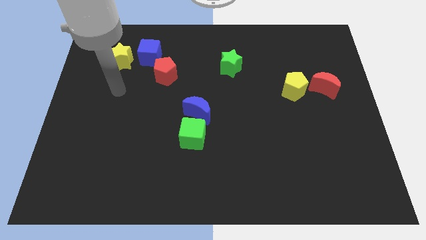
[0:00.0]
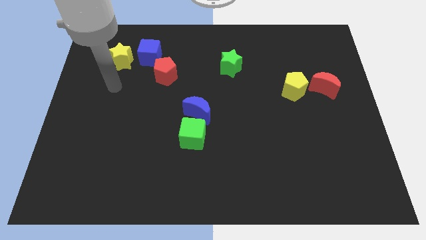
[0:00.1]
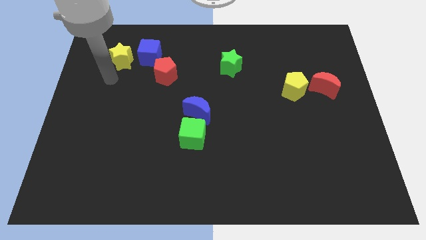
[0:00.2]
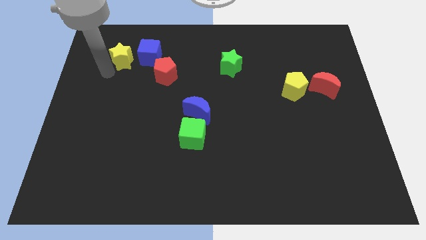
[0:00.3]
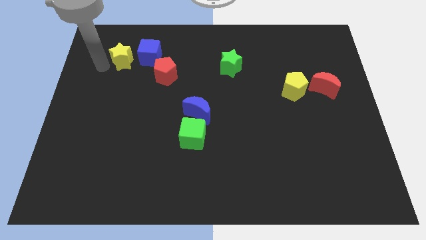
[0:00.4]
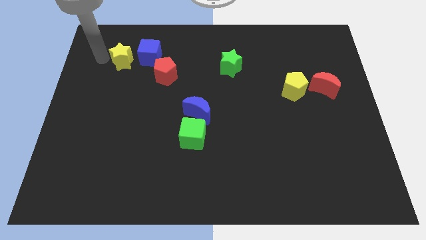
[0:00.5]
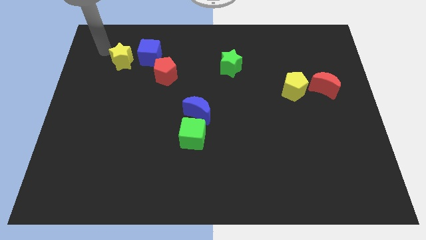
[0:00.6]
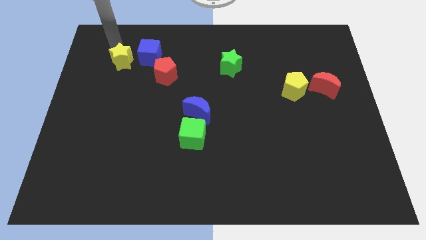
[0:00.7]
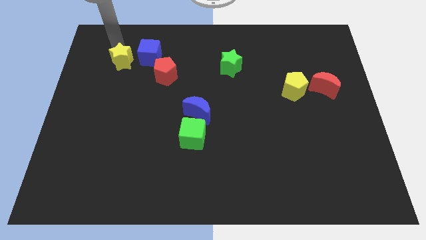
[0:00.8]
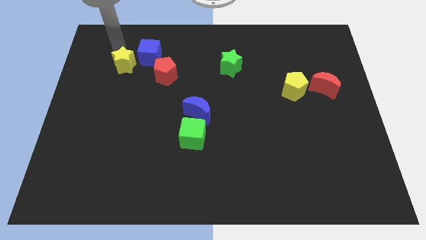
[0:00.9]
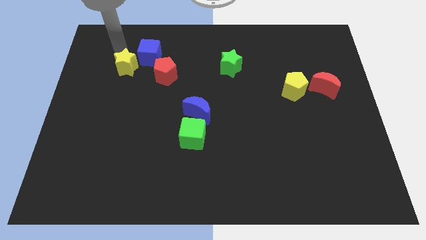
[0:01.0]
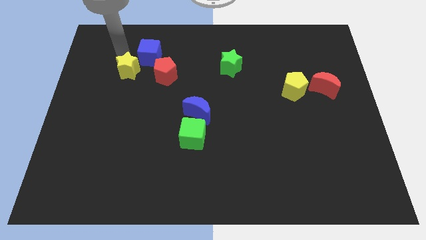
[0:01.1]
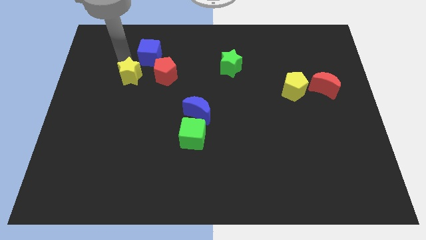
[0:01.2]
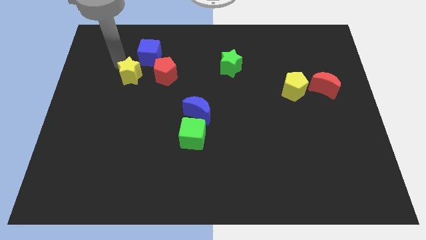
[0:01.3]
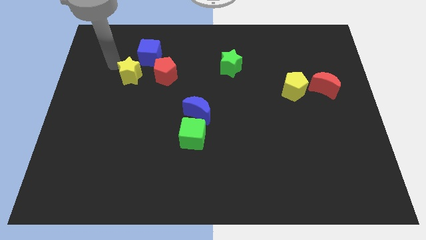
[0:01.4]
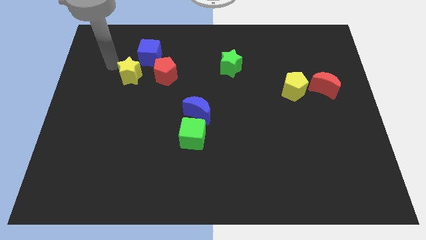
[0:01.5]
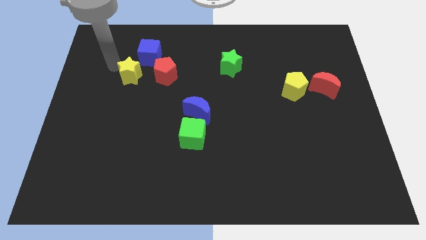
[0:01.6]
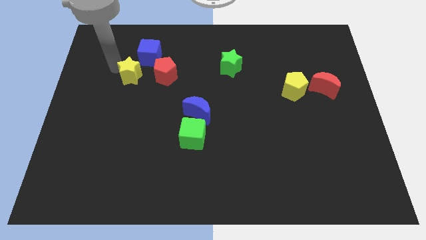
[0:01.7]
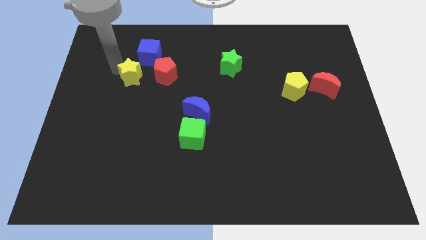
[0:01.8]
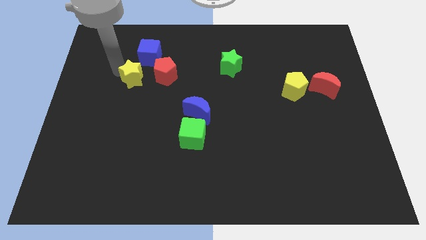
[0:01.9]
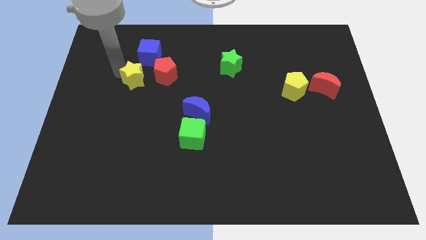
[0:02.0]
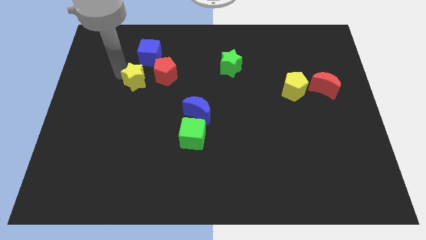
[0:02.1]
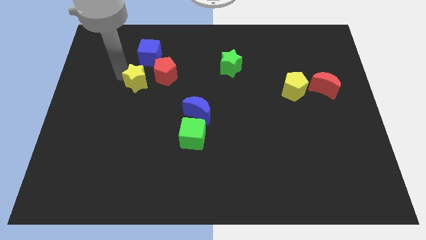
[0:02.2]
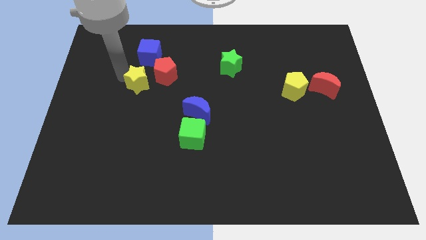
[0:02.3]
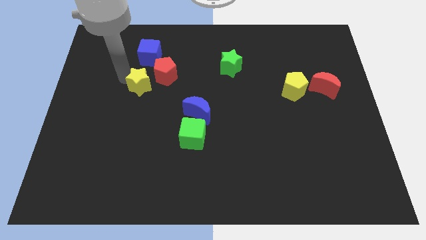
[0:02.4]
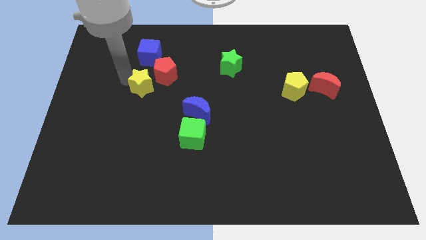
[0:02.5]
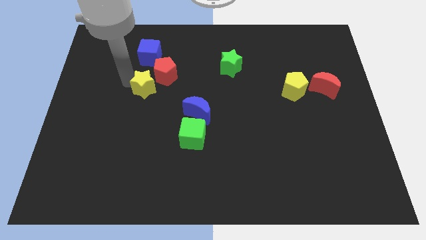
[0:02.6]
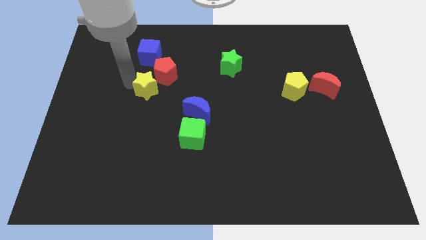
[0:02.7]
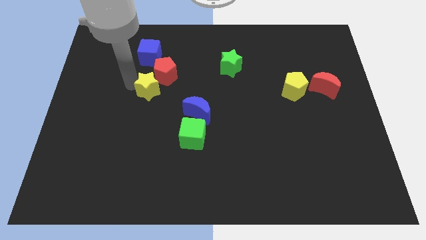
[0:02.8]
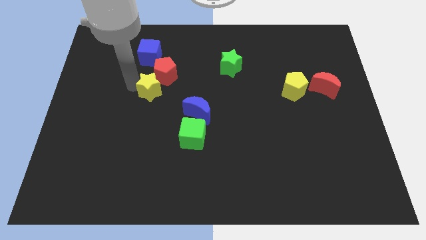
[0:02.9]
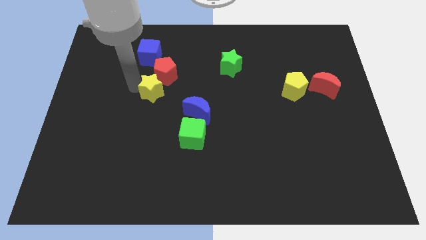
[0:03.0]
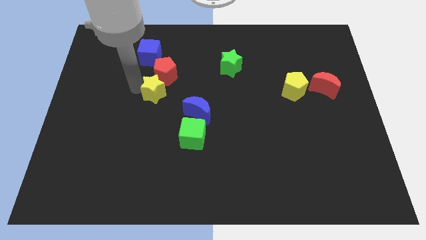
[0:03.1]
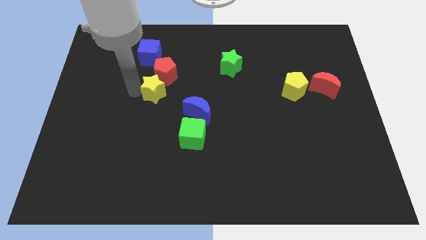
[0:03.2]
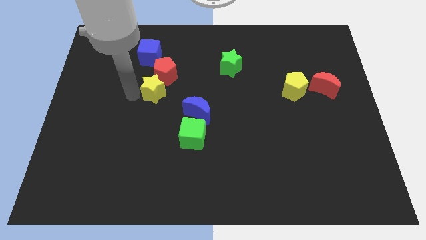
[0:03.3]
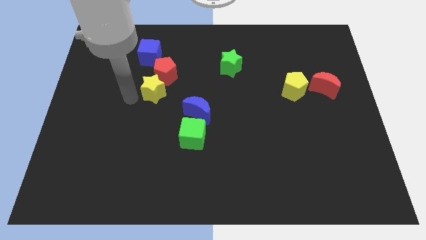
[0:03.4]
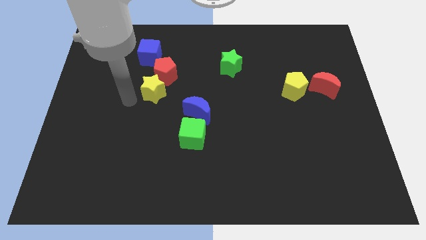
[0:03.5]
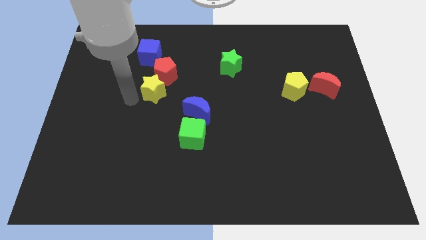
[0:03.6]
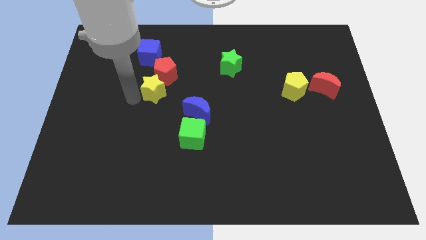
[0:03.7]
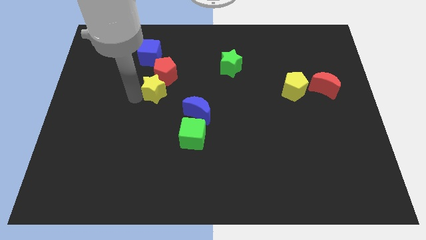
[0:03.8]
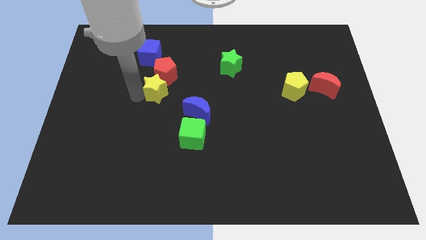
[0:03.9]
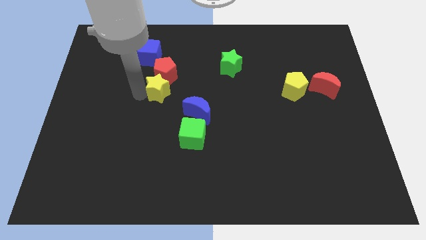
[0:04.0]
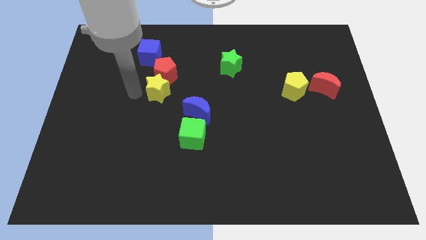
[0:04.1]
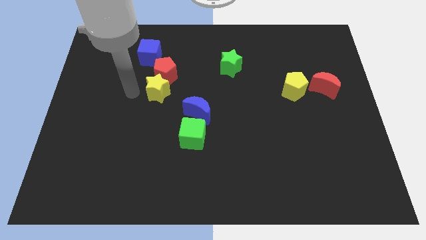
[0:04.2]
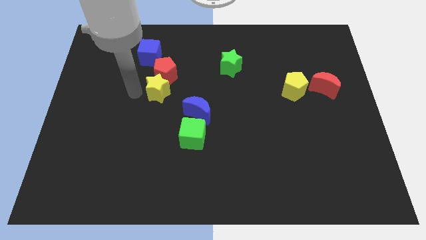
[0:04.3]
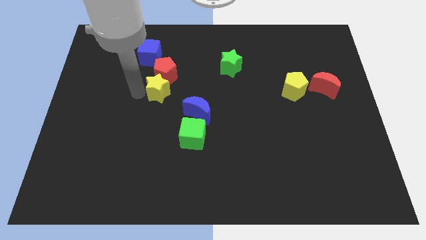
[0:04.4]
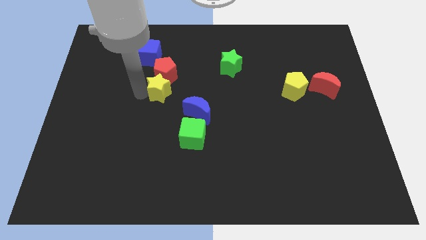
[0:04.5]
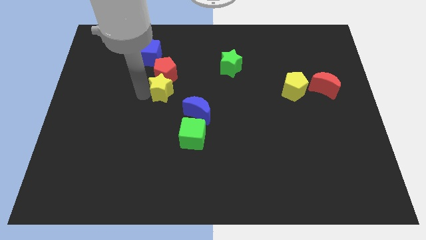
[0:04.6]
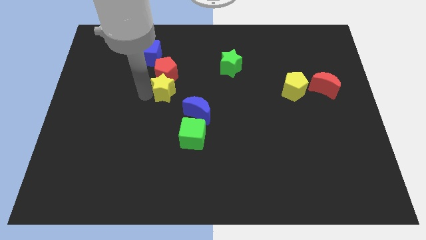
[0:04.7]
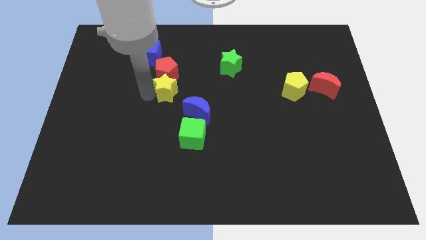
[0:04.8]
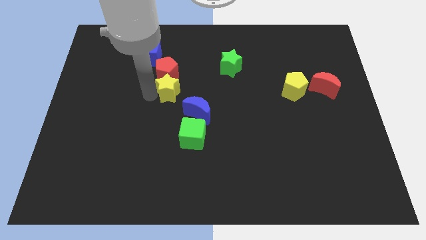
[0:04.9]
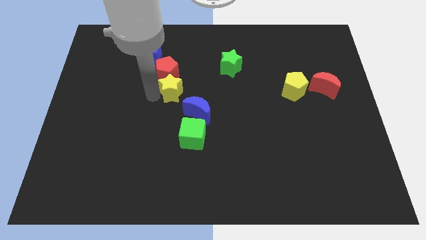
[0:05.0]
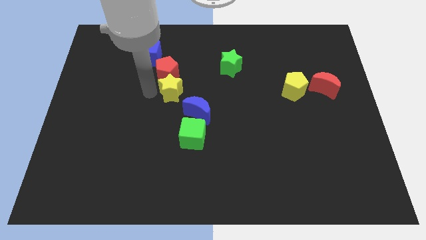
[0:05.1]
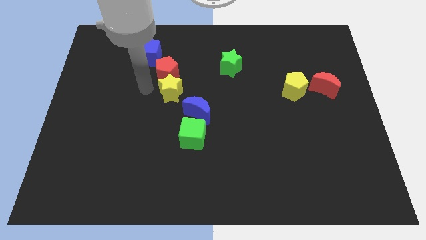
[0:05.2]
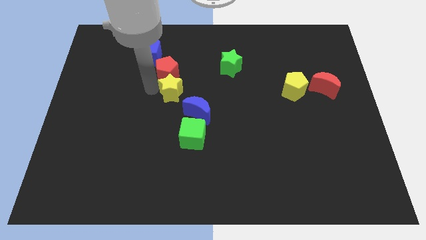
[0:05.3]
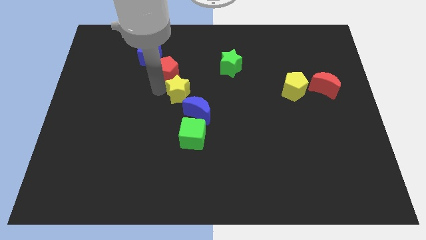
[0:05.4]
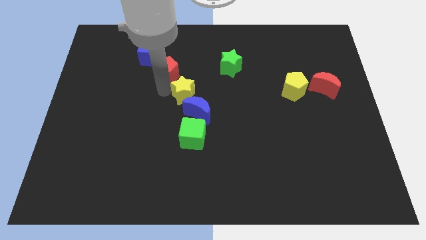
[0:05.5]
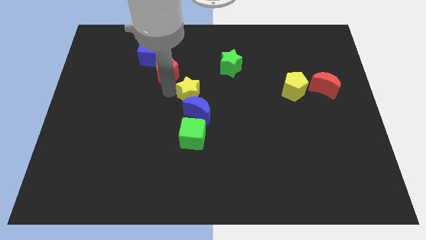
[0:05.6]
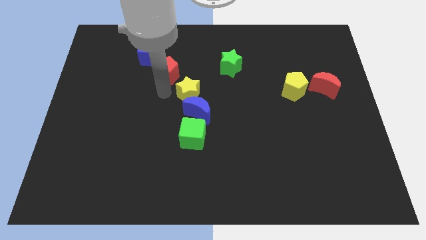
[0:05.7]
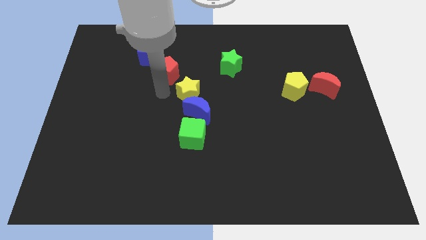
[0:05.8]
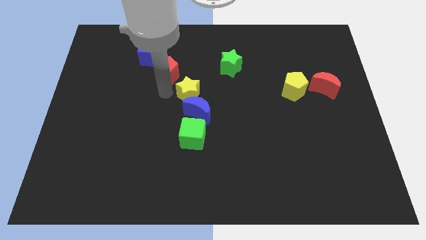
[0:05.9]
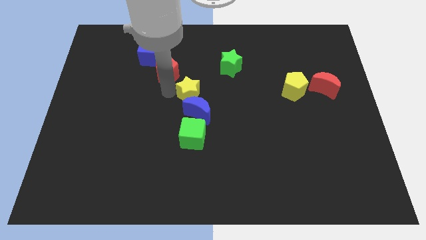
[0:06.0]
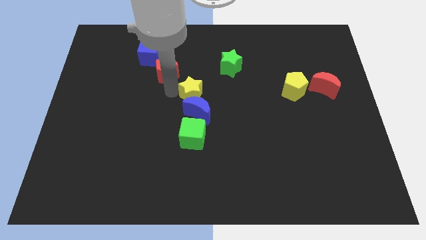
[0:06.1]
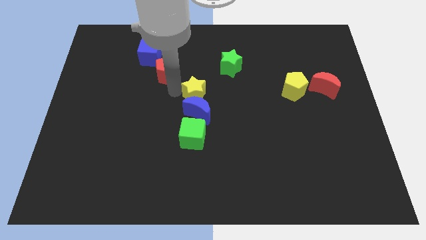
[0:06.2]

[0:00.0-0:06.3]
put the yellow star to the top right of the blue moon
